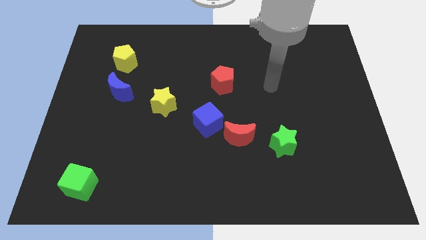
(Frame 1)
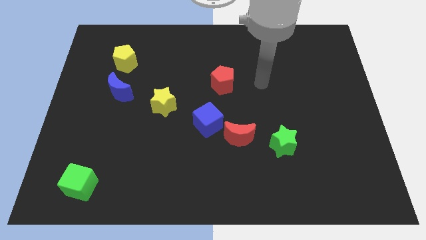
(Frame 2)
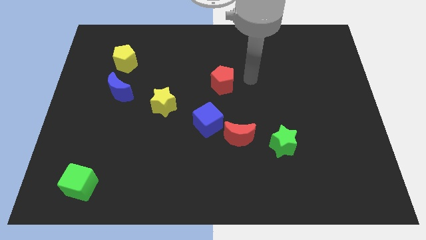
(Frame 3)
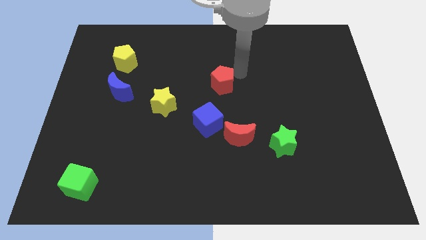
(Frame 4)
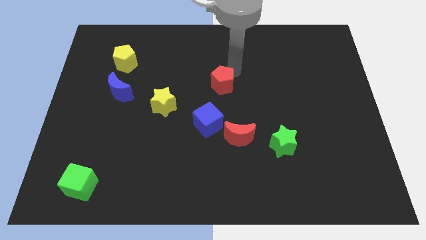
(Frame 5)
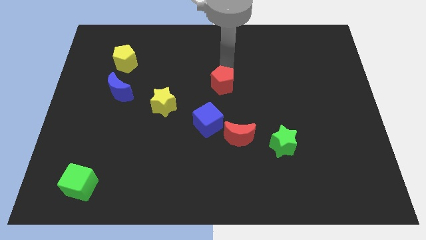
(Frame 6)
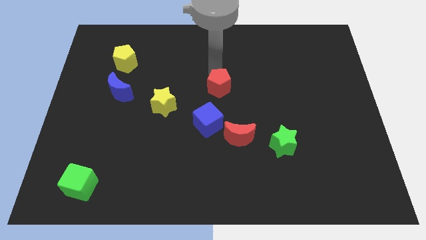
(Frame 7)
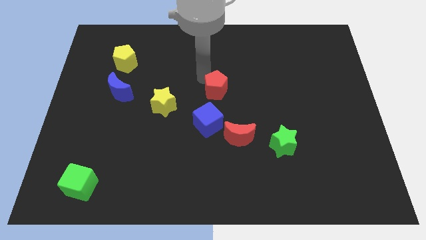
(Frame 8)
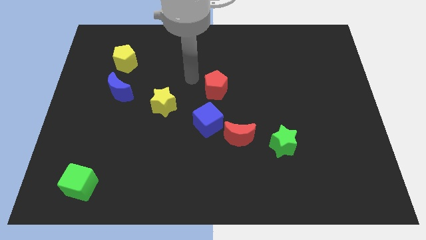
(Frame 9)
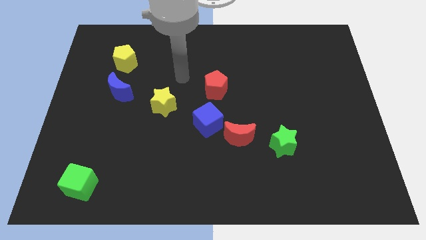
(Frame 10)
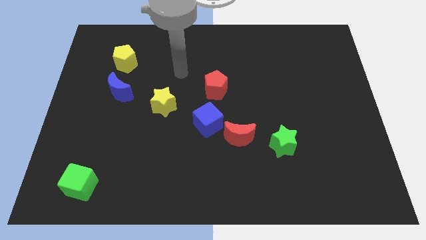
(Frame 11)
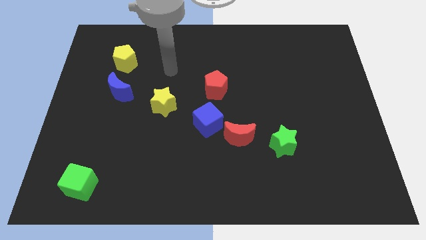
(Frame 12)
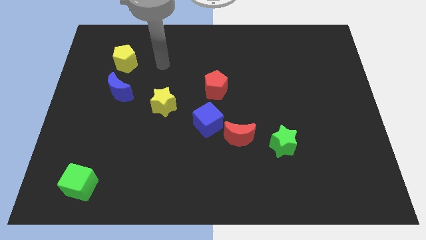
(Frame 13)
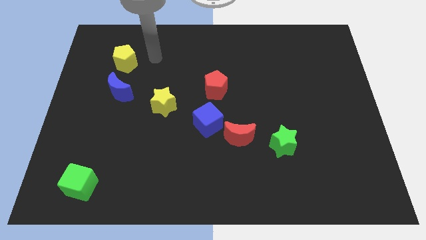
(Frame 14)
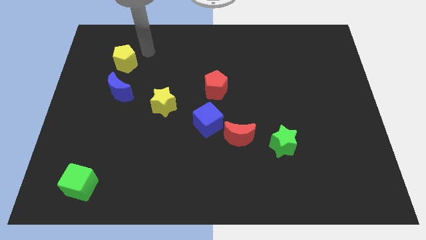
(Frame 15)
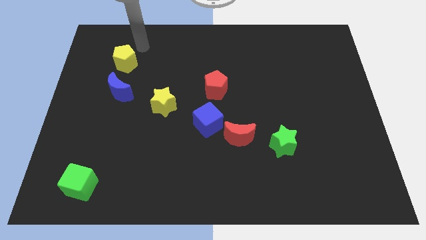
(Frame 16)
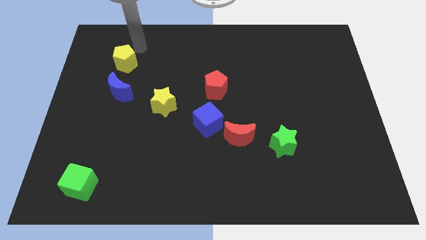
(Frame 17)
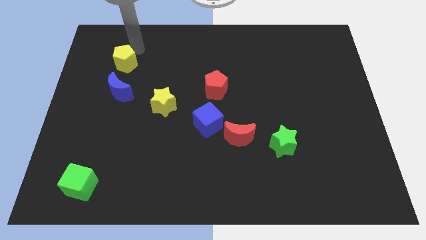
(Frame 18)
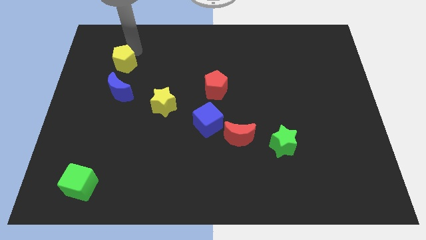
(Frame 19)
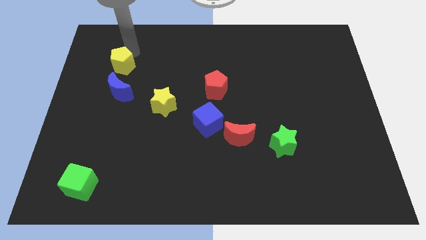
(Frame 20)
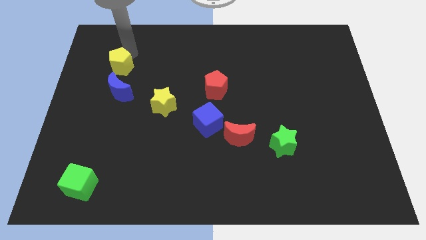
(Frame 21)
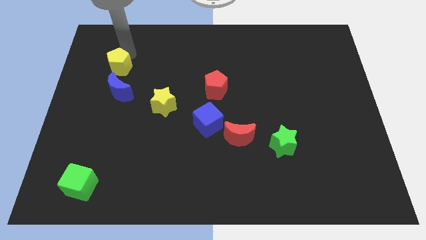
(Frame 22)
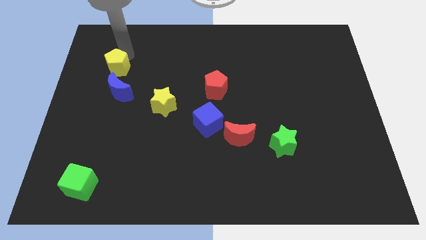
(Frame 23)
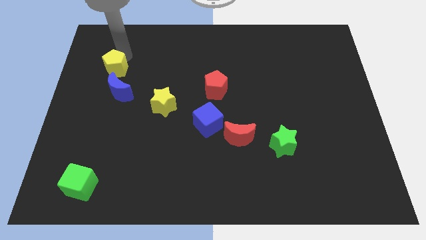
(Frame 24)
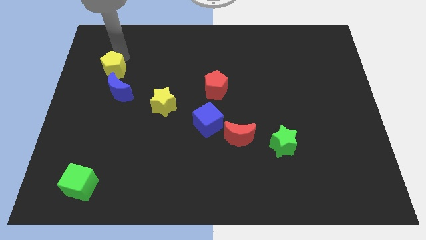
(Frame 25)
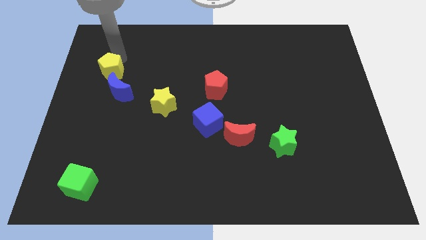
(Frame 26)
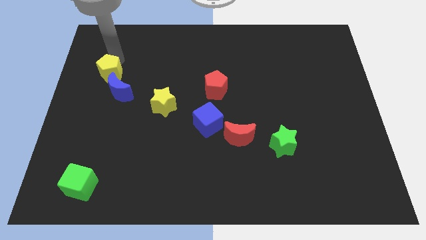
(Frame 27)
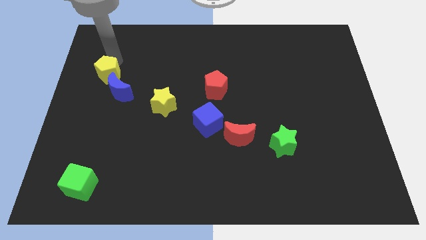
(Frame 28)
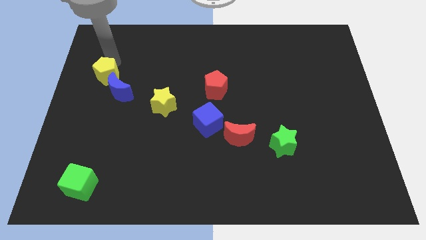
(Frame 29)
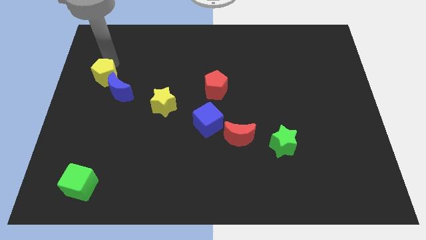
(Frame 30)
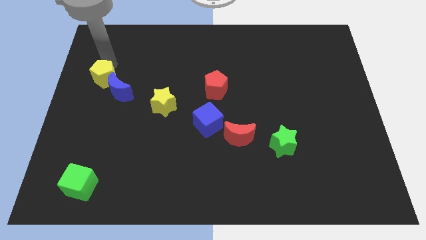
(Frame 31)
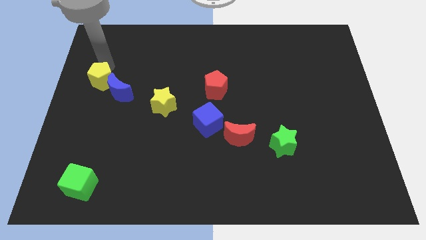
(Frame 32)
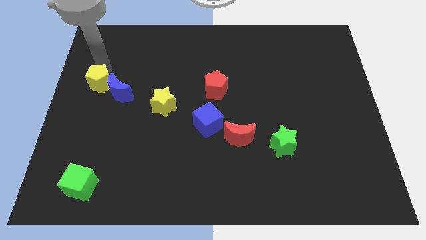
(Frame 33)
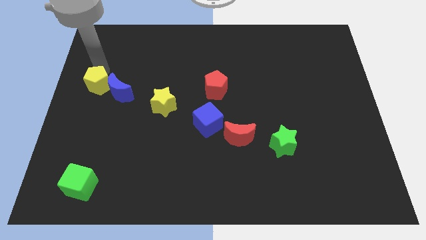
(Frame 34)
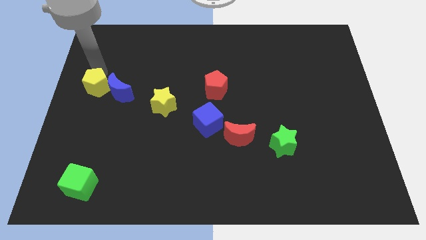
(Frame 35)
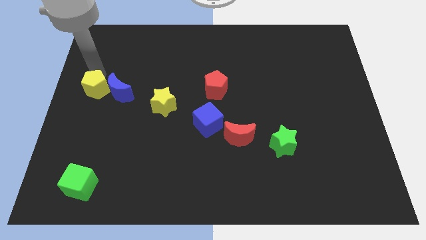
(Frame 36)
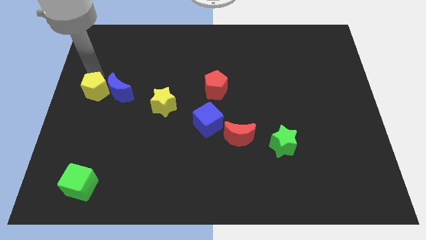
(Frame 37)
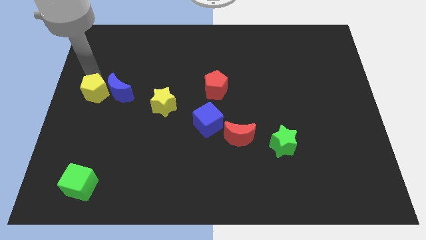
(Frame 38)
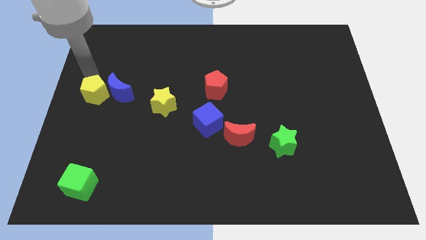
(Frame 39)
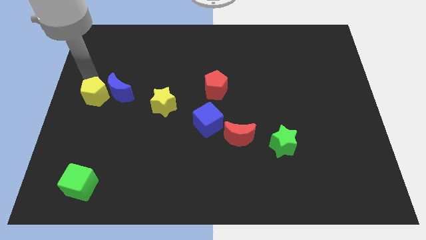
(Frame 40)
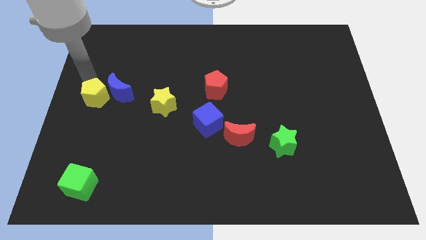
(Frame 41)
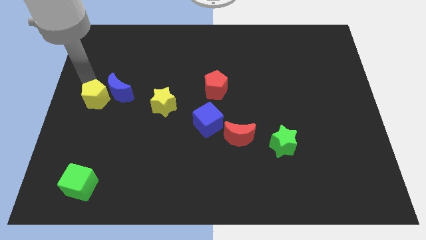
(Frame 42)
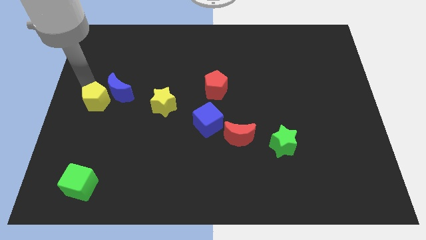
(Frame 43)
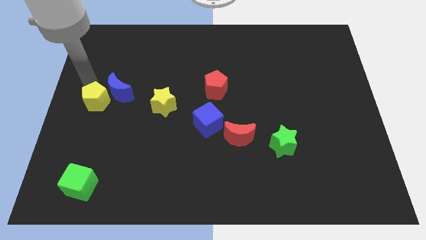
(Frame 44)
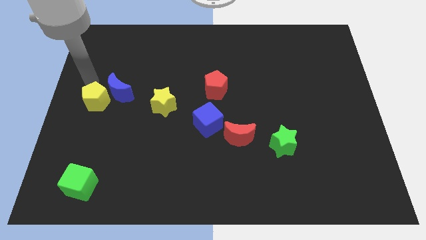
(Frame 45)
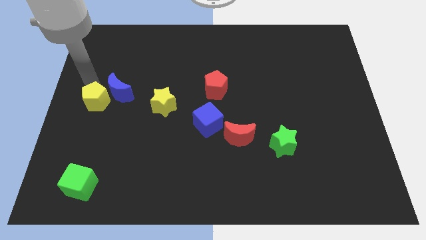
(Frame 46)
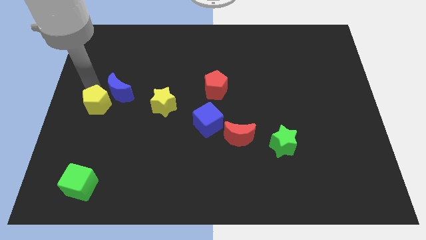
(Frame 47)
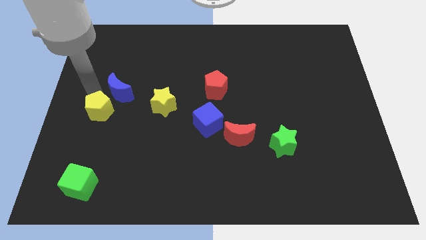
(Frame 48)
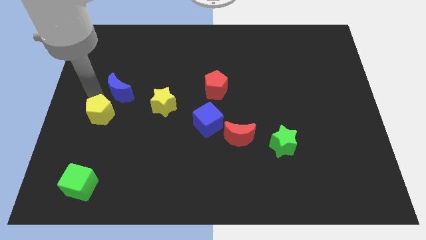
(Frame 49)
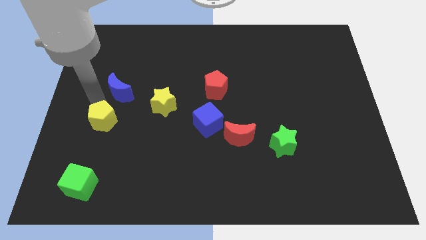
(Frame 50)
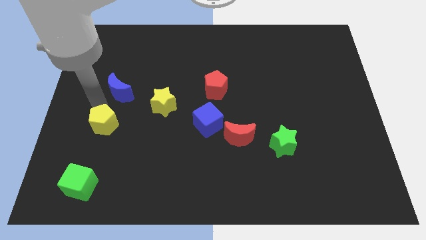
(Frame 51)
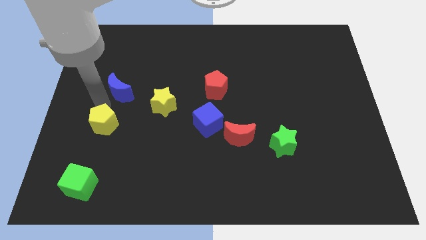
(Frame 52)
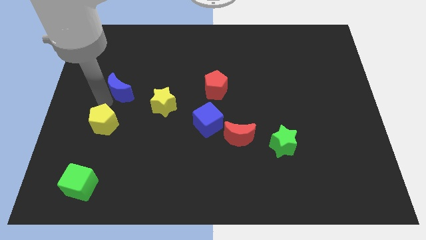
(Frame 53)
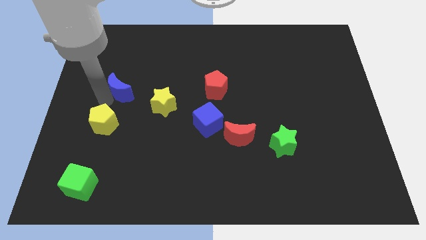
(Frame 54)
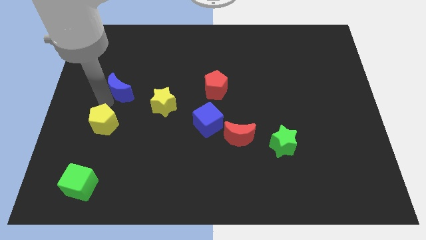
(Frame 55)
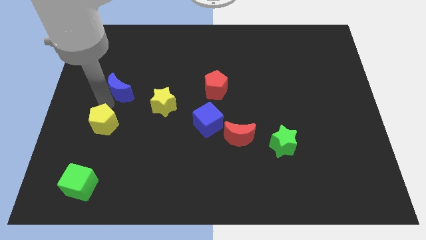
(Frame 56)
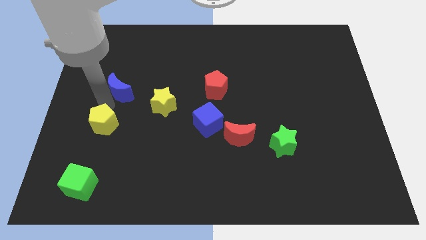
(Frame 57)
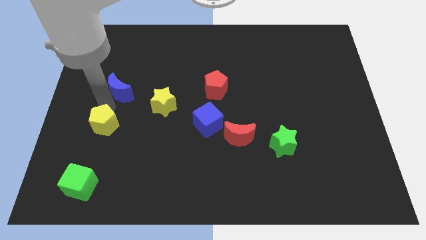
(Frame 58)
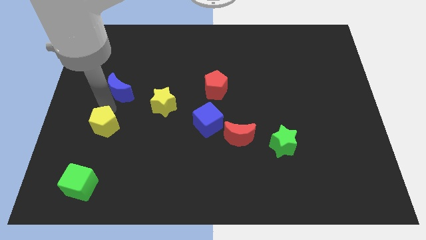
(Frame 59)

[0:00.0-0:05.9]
move the yellow pentagon down

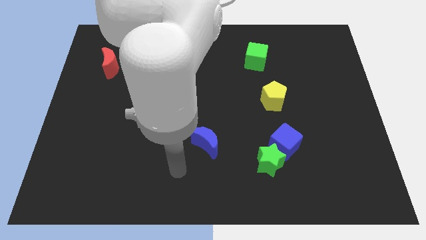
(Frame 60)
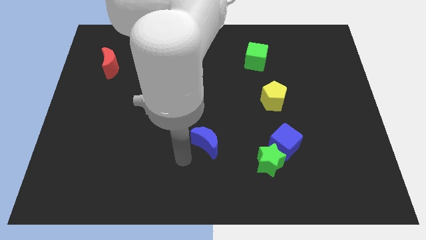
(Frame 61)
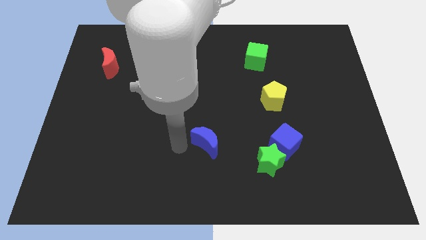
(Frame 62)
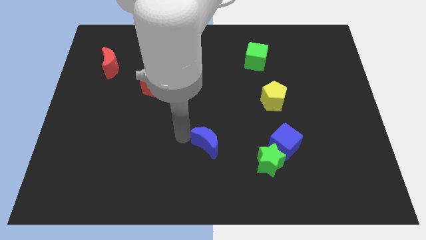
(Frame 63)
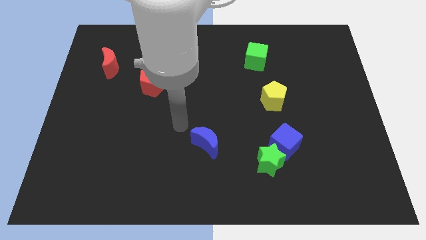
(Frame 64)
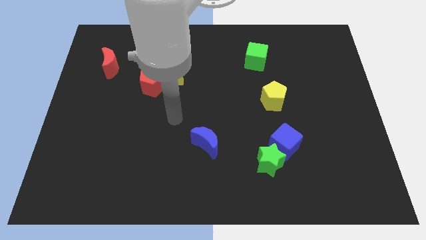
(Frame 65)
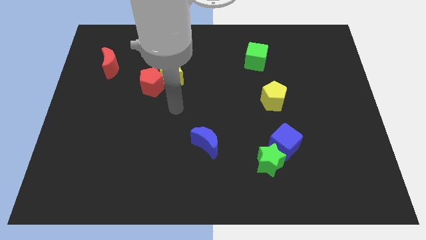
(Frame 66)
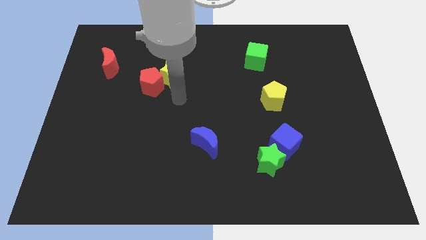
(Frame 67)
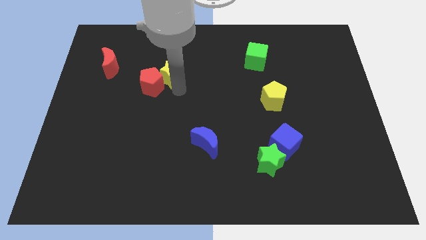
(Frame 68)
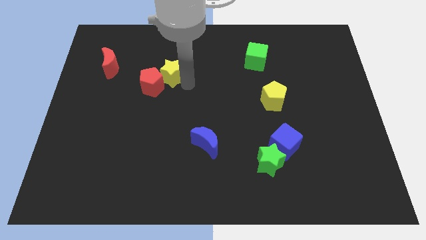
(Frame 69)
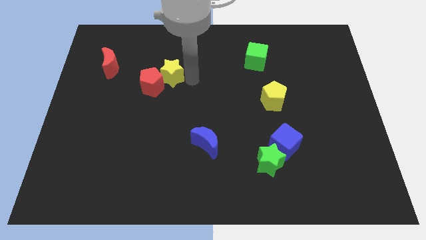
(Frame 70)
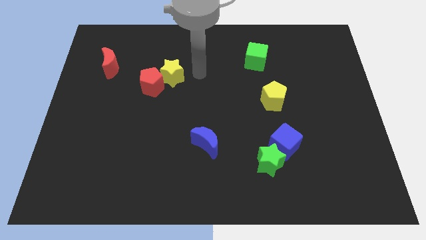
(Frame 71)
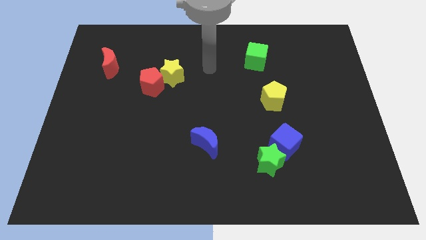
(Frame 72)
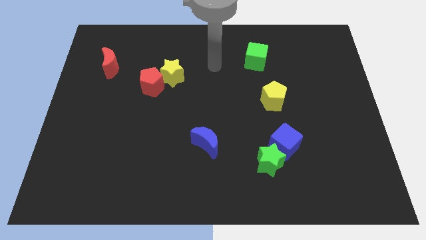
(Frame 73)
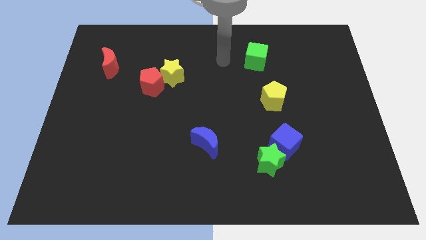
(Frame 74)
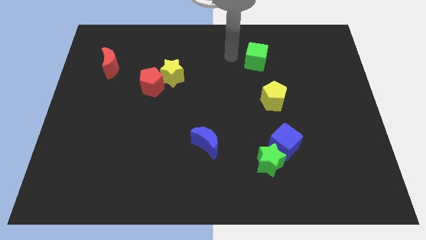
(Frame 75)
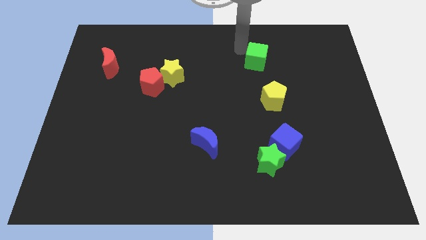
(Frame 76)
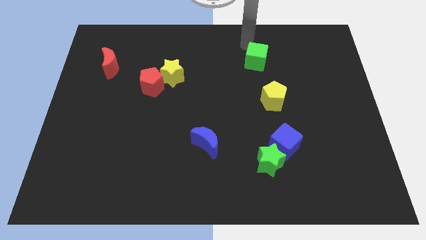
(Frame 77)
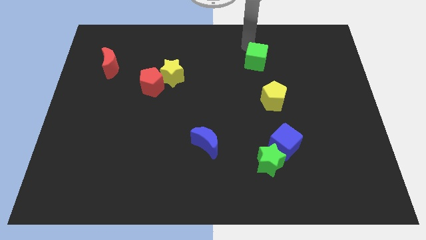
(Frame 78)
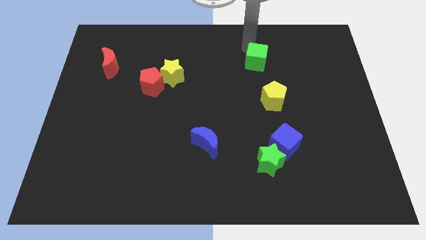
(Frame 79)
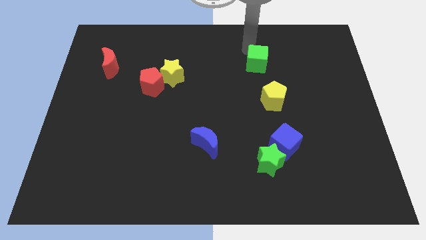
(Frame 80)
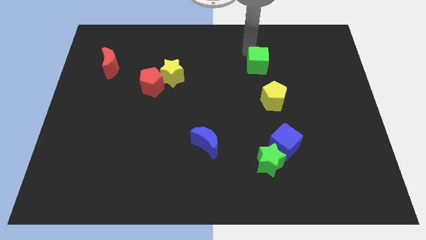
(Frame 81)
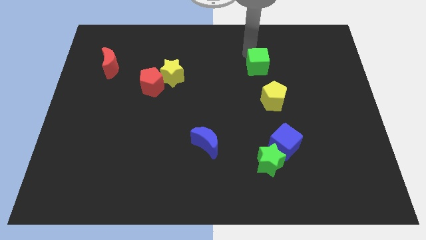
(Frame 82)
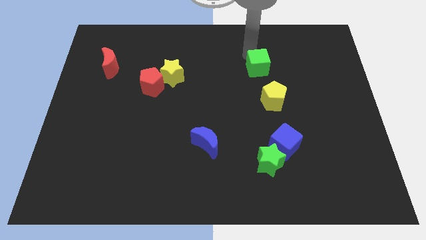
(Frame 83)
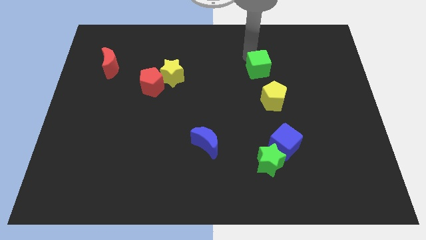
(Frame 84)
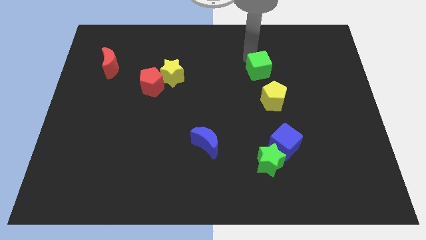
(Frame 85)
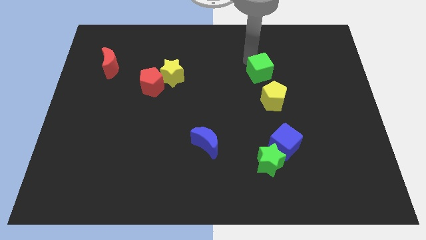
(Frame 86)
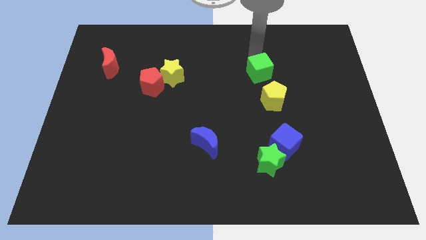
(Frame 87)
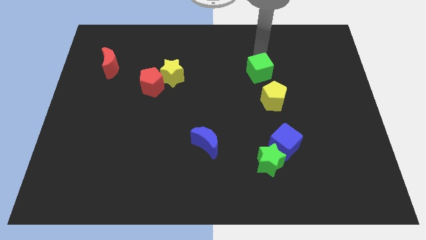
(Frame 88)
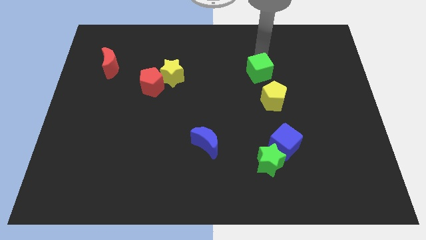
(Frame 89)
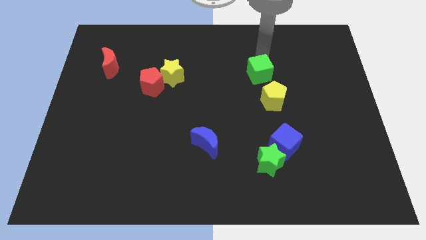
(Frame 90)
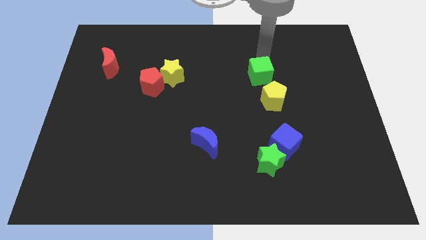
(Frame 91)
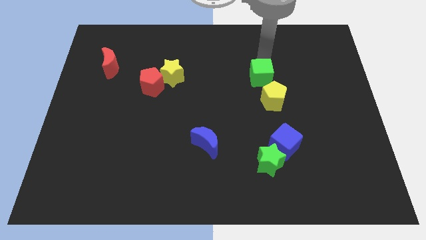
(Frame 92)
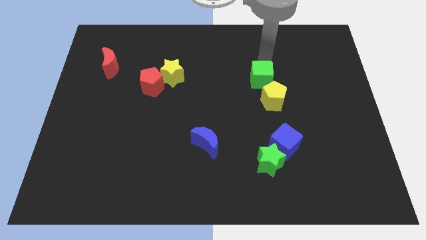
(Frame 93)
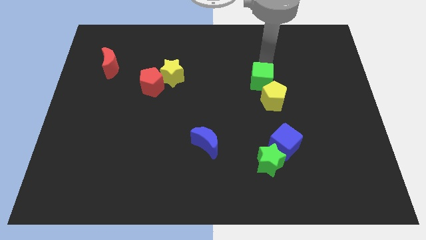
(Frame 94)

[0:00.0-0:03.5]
slightly push the green cube down
